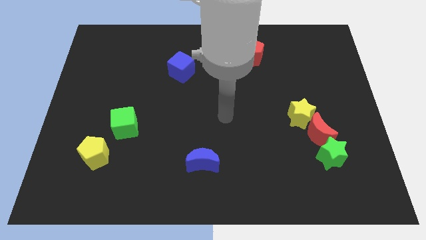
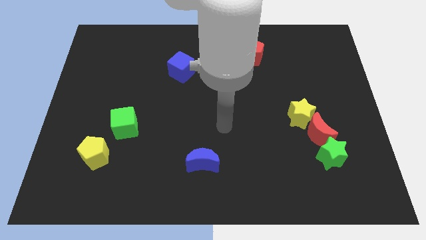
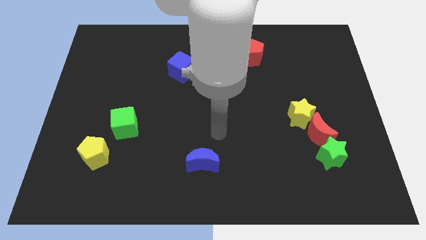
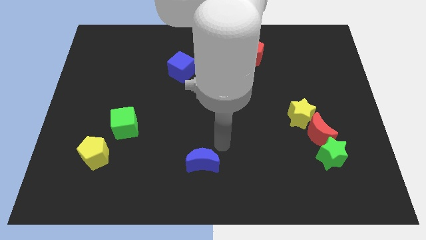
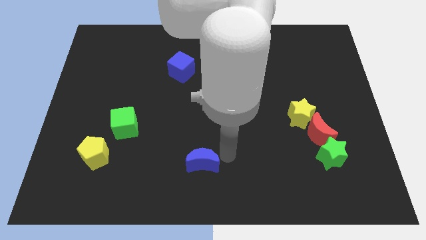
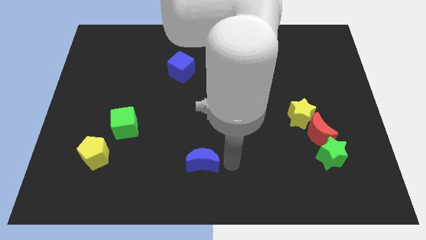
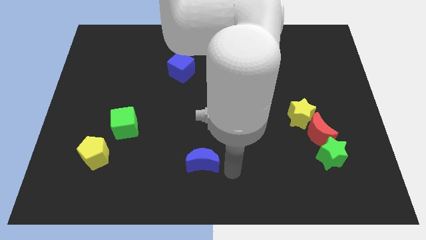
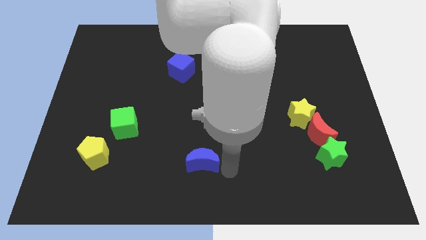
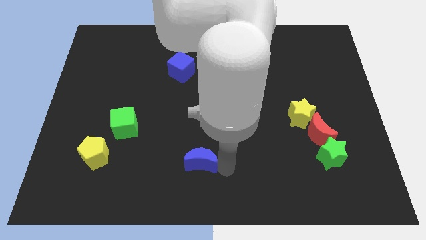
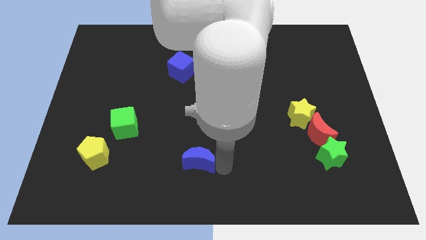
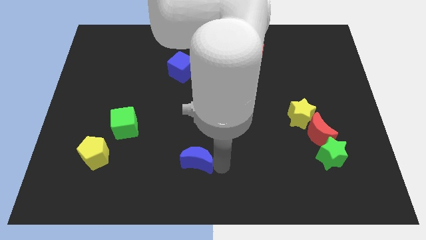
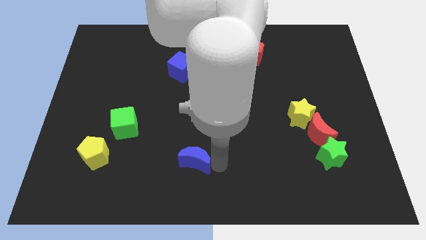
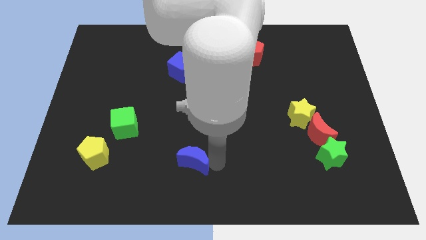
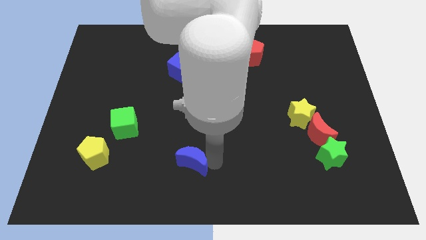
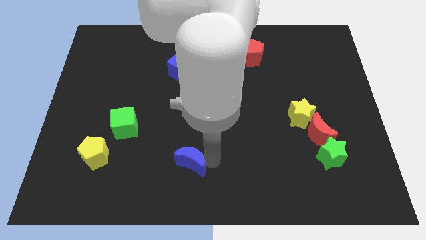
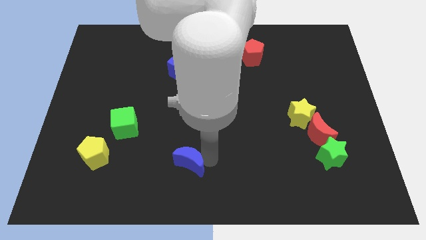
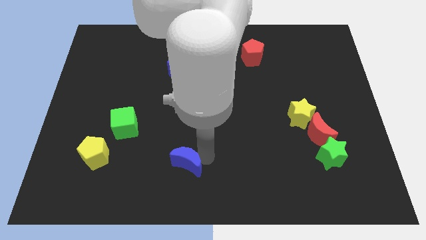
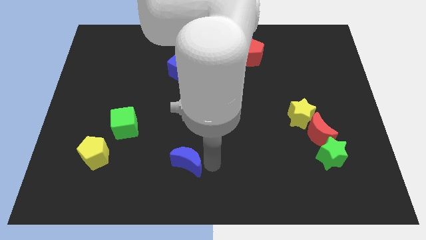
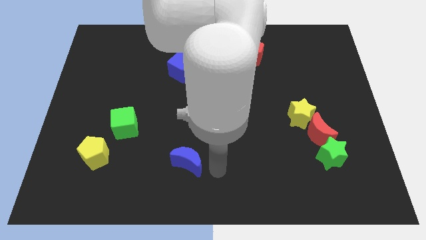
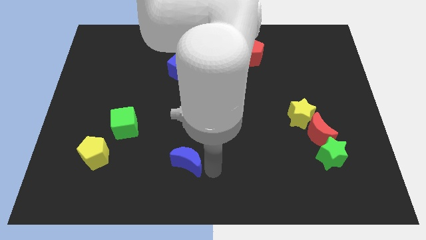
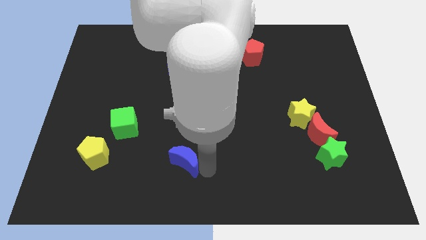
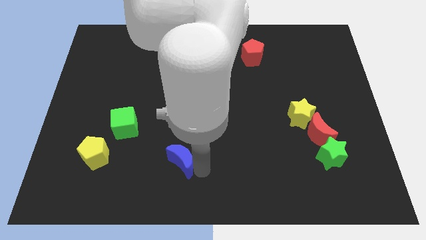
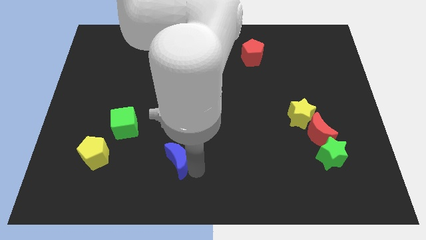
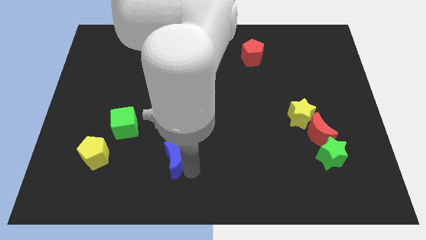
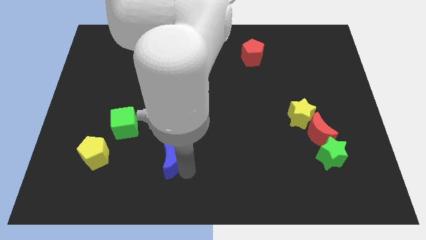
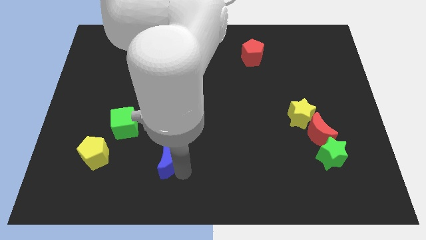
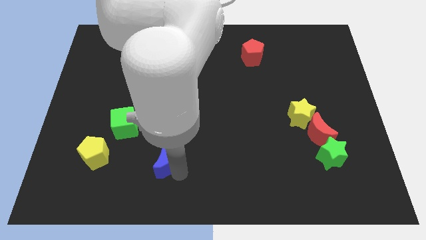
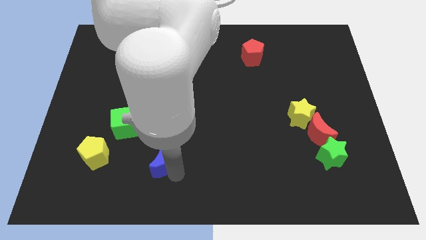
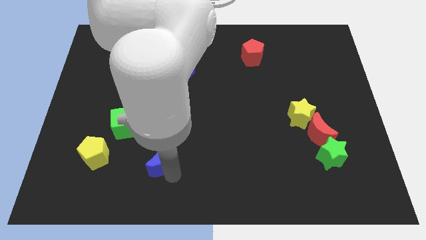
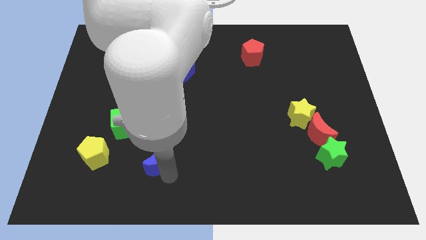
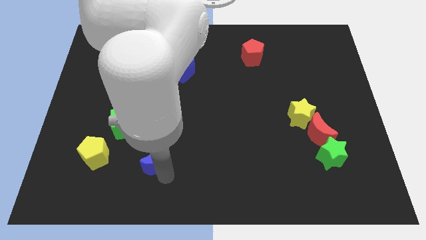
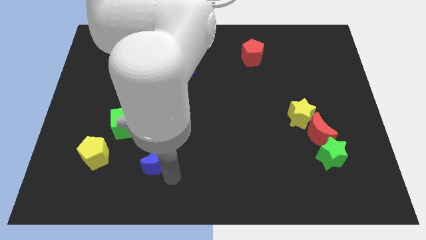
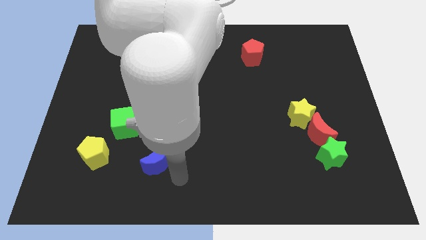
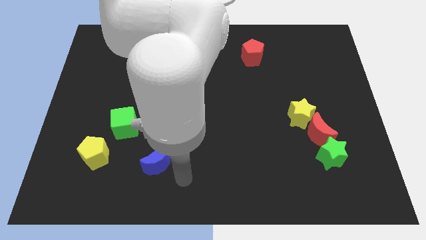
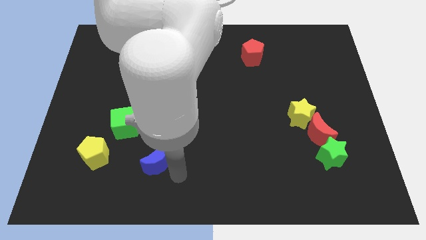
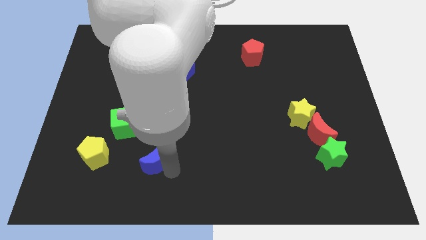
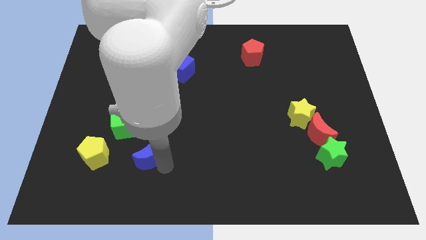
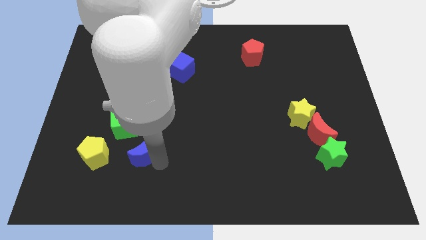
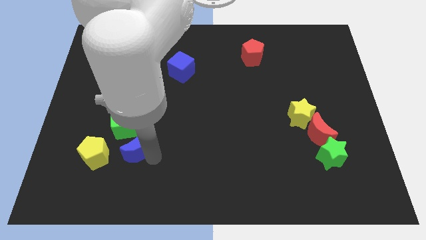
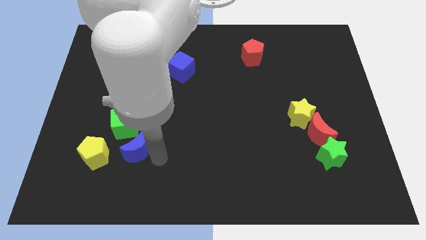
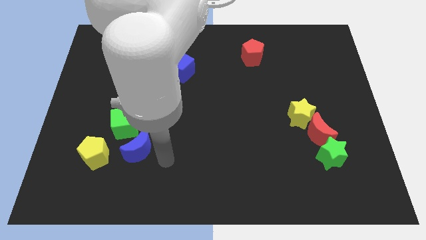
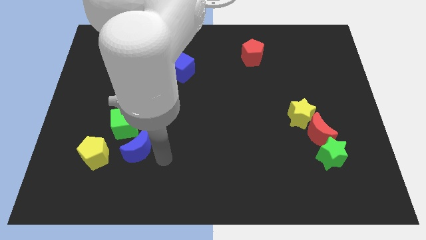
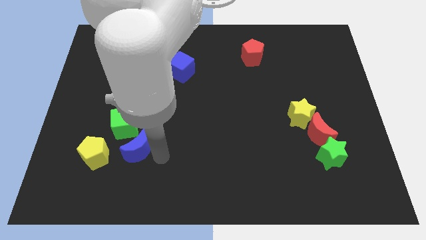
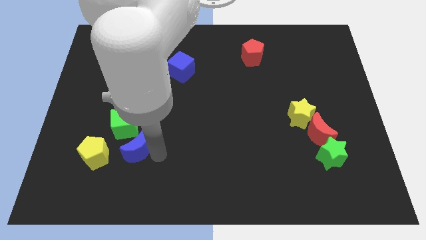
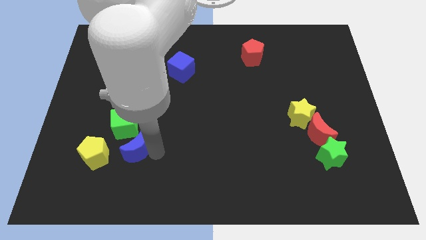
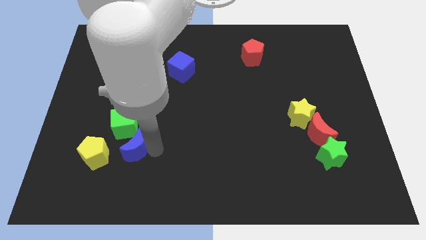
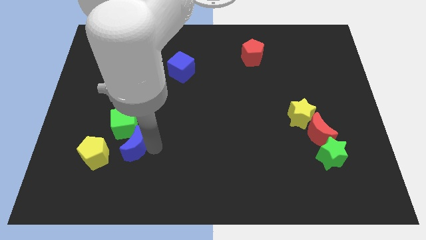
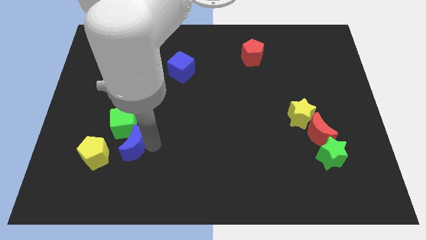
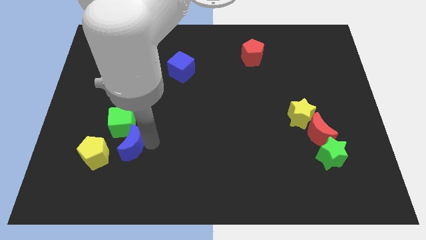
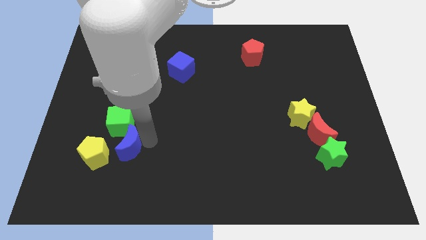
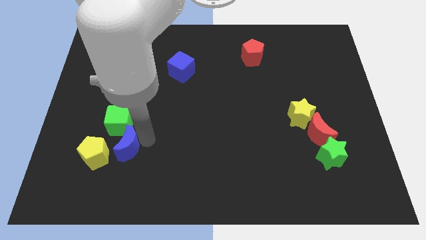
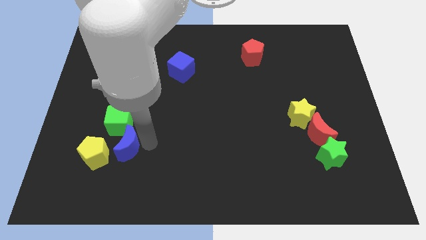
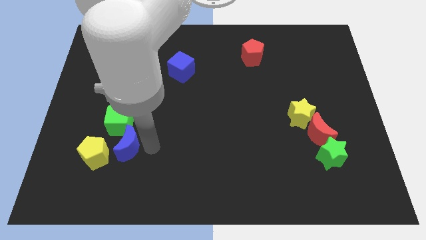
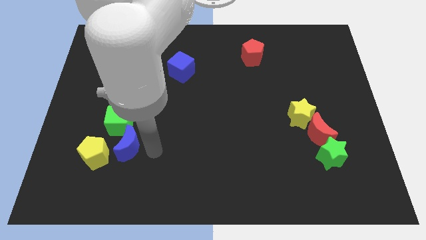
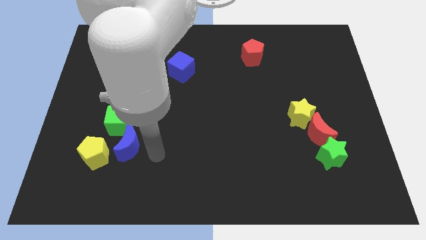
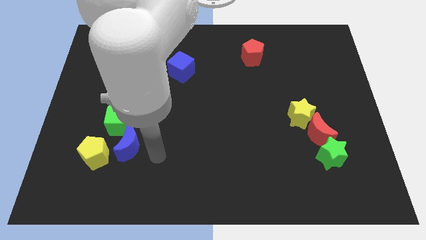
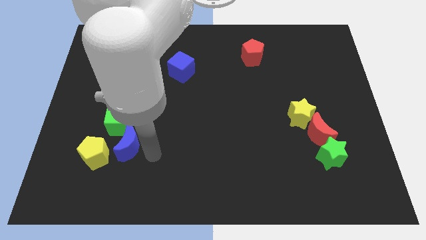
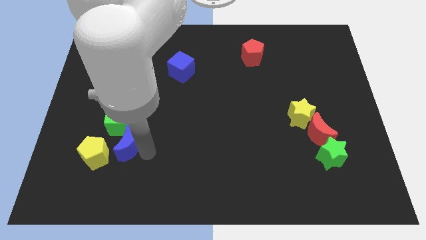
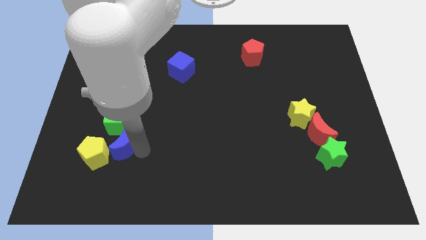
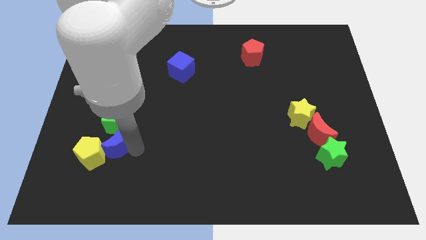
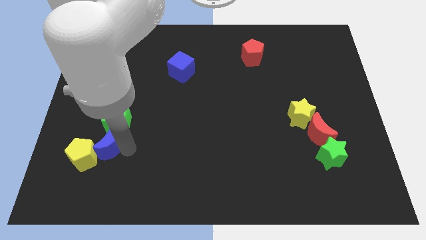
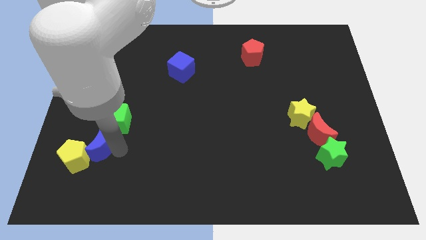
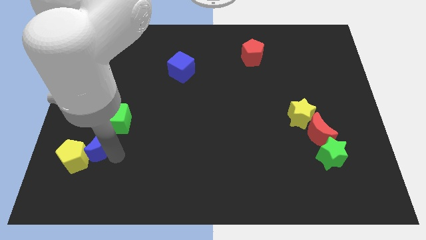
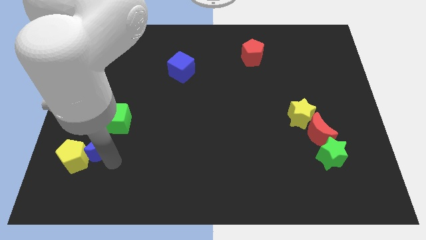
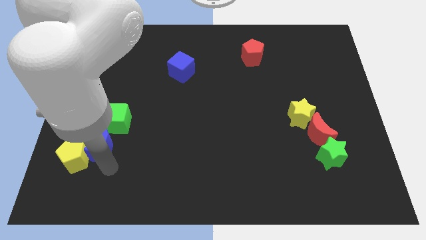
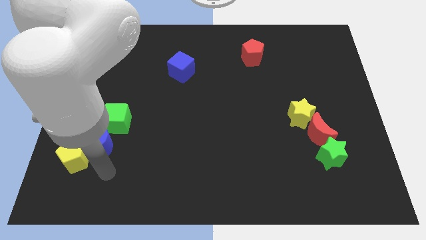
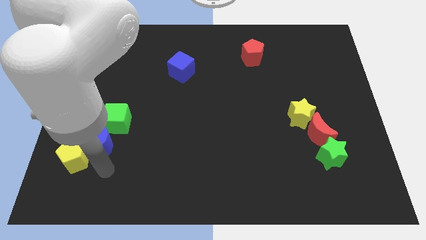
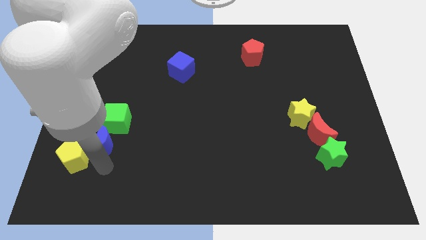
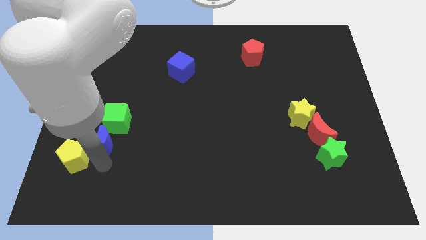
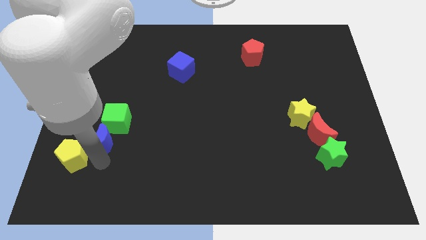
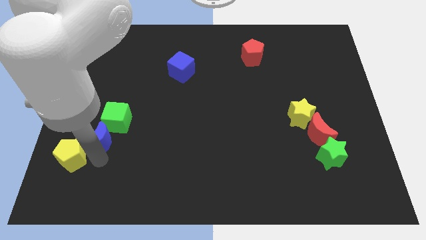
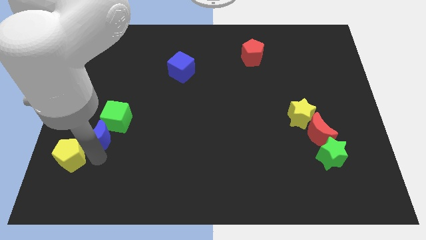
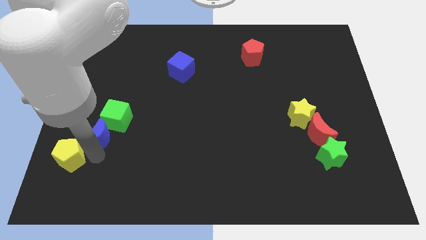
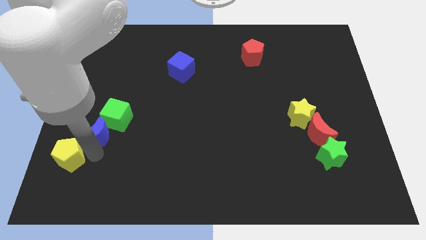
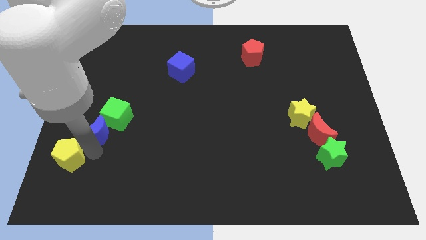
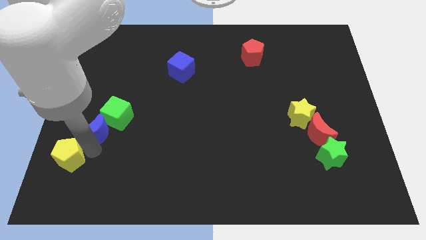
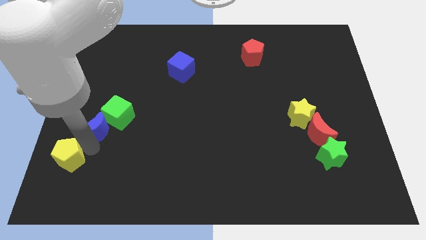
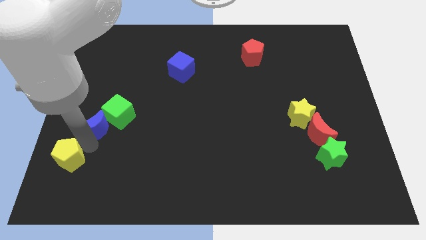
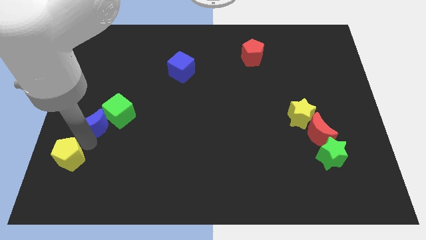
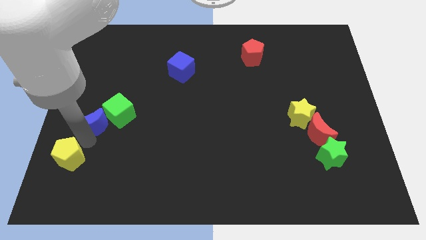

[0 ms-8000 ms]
slide the blue moon to the center left
